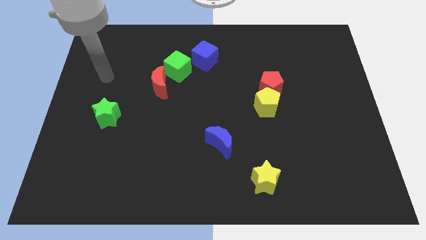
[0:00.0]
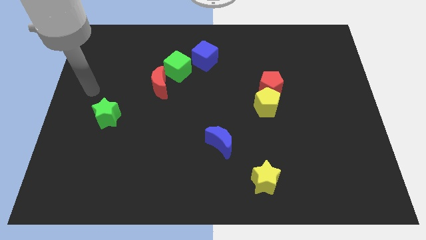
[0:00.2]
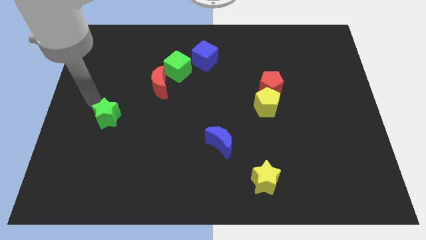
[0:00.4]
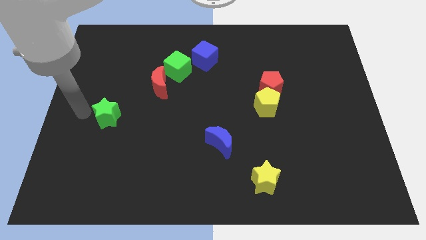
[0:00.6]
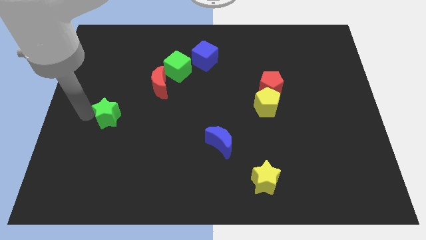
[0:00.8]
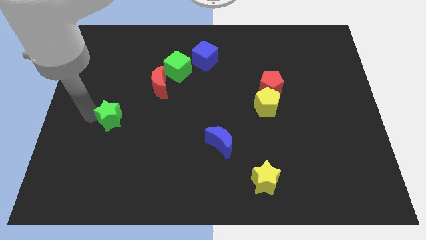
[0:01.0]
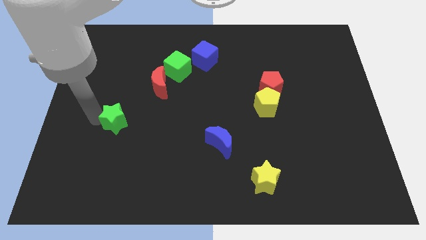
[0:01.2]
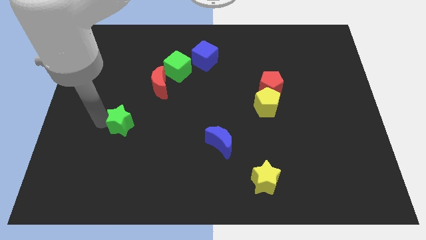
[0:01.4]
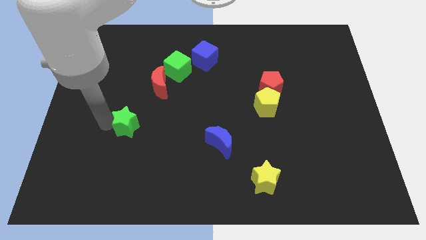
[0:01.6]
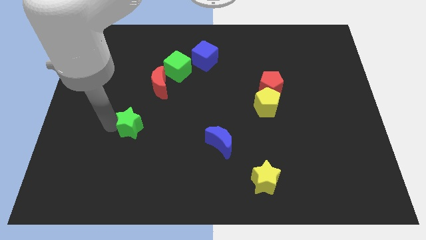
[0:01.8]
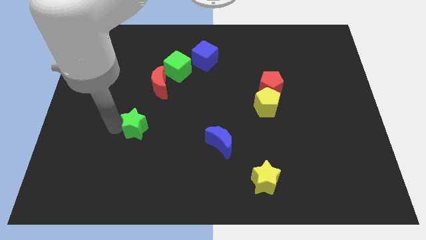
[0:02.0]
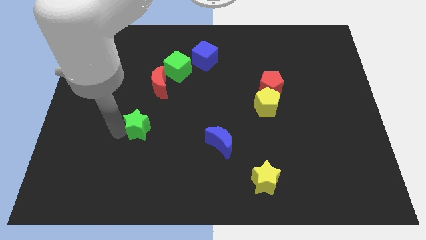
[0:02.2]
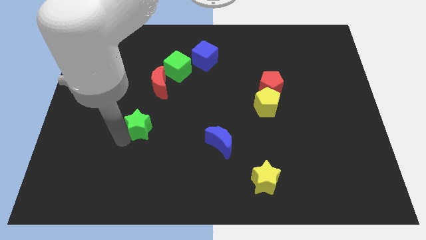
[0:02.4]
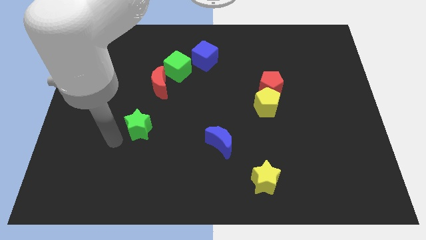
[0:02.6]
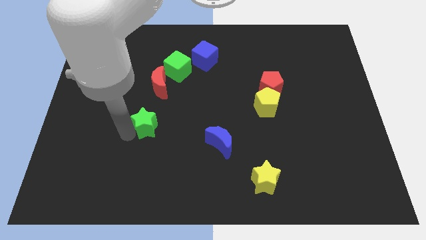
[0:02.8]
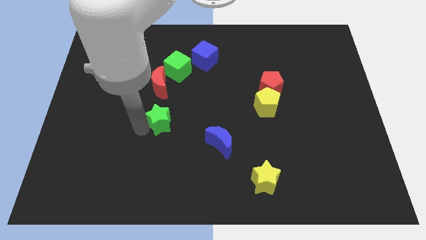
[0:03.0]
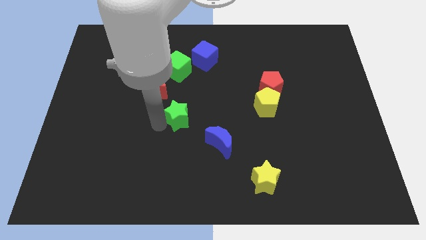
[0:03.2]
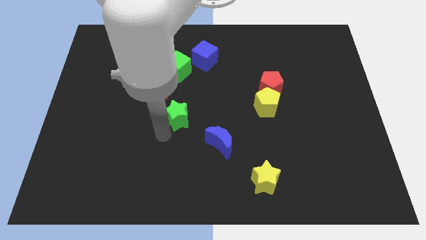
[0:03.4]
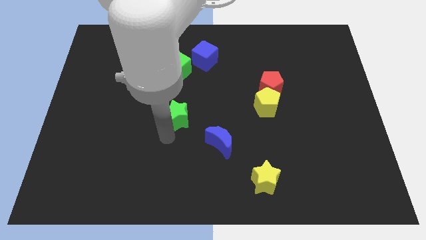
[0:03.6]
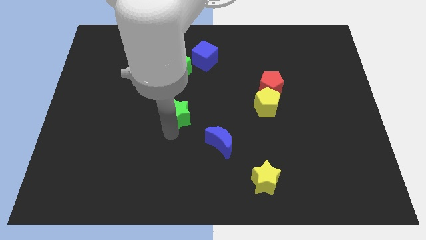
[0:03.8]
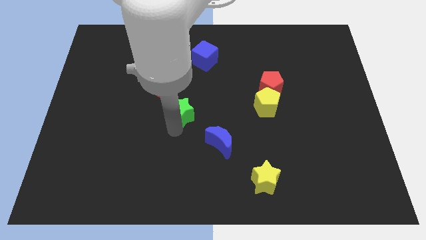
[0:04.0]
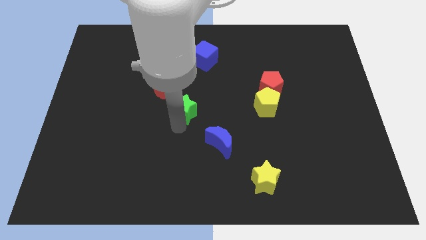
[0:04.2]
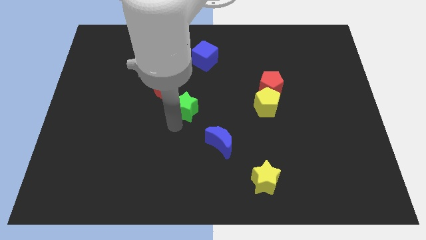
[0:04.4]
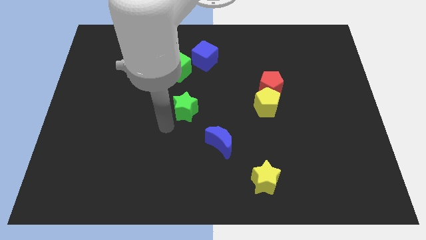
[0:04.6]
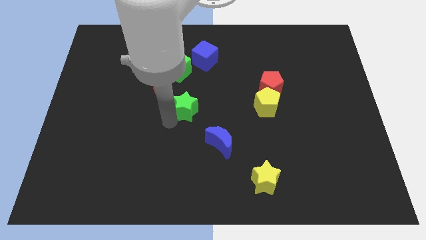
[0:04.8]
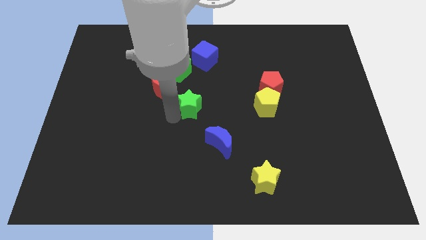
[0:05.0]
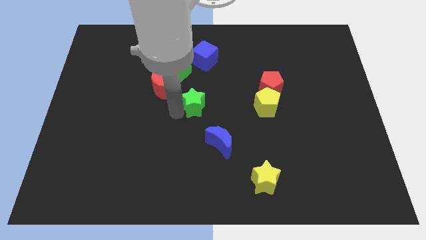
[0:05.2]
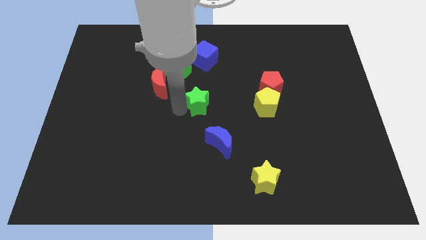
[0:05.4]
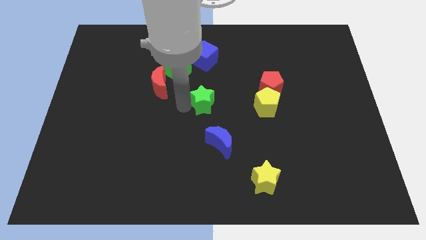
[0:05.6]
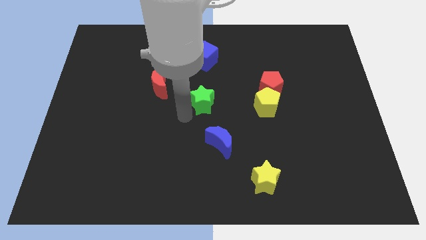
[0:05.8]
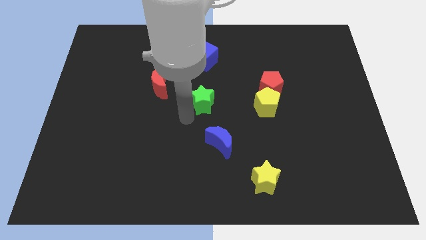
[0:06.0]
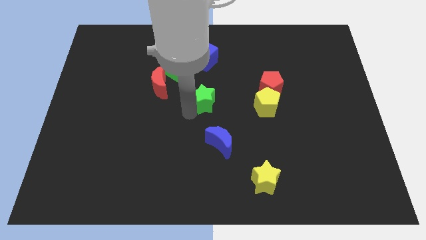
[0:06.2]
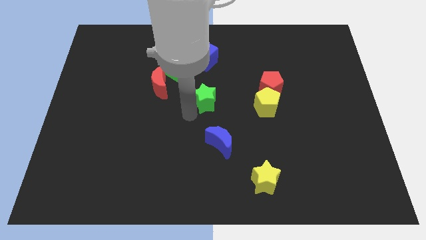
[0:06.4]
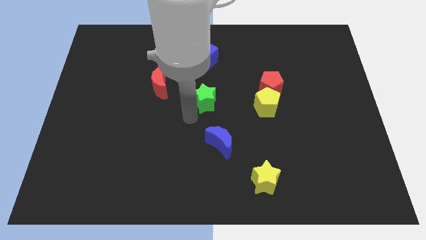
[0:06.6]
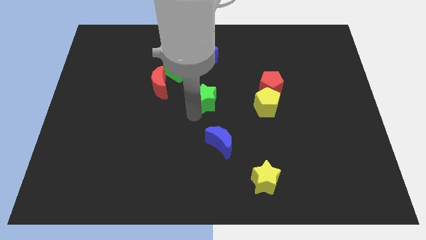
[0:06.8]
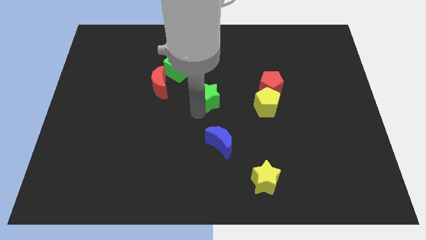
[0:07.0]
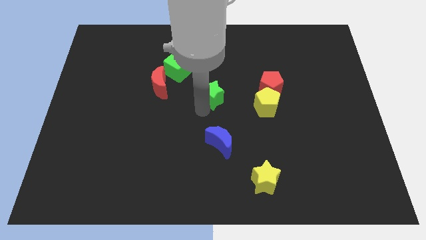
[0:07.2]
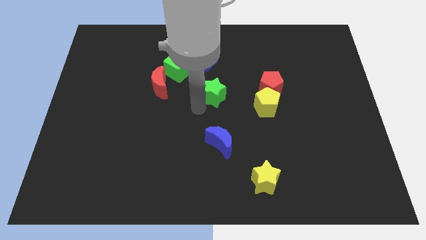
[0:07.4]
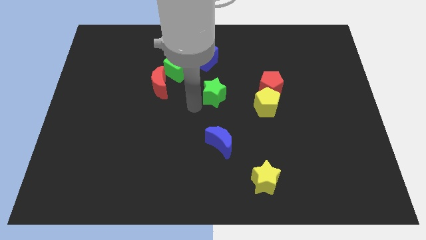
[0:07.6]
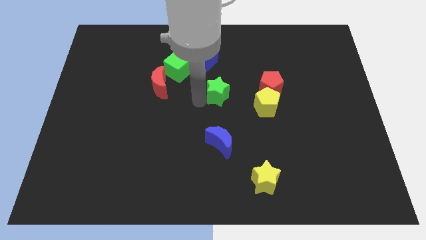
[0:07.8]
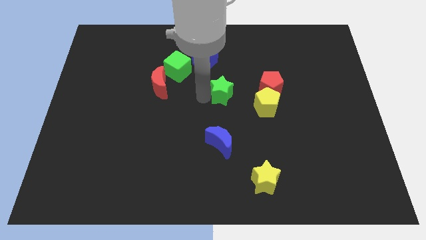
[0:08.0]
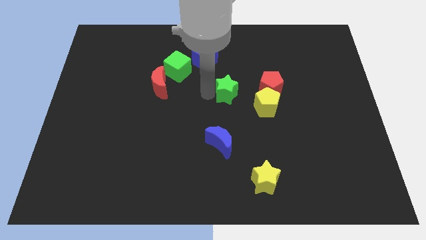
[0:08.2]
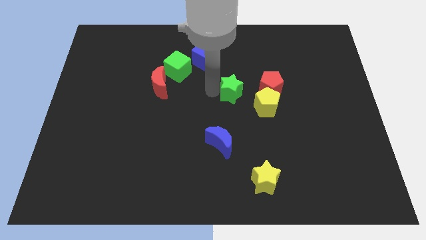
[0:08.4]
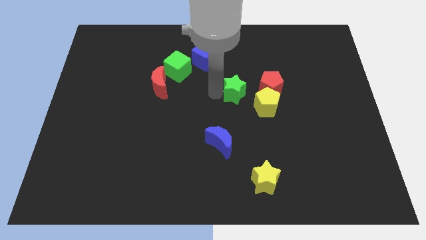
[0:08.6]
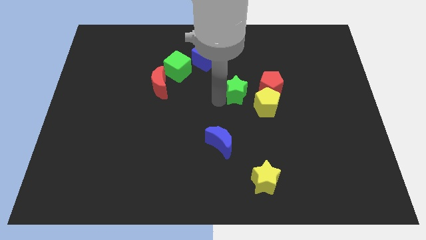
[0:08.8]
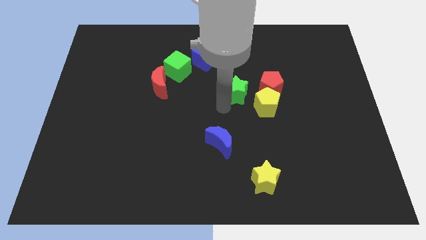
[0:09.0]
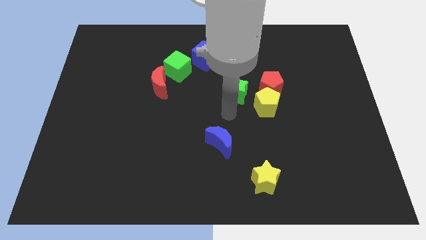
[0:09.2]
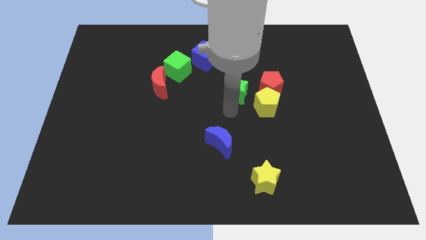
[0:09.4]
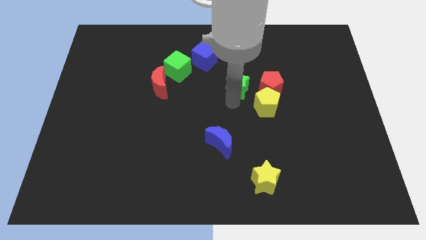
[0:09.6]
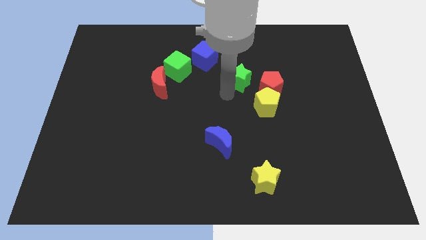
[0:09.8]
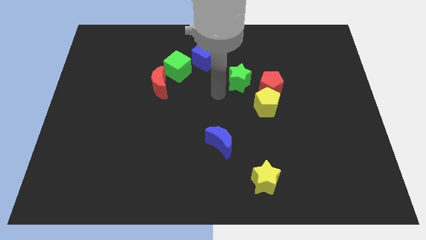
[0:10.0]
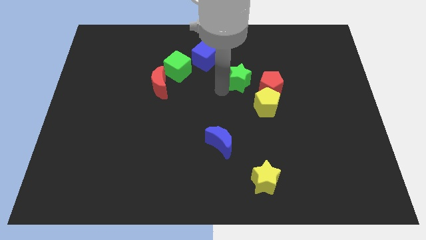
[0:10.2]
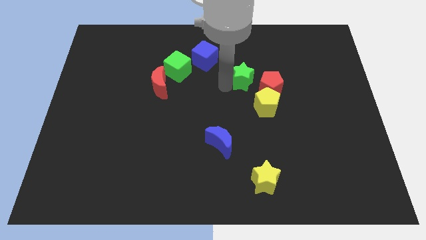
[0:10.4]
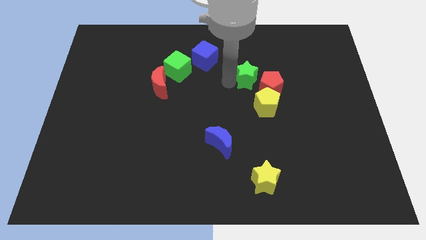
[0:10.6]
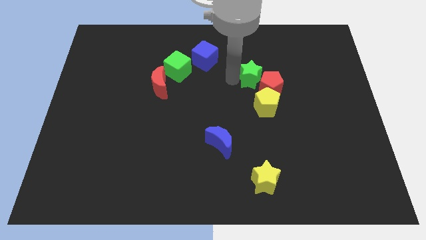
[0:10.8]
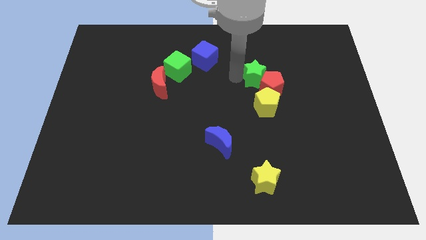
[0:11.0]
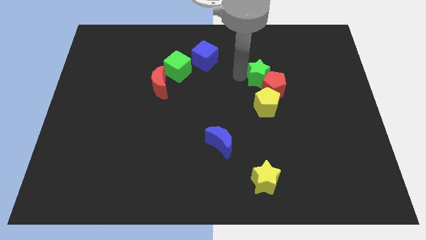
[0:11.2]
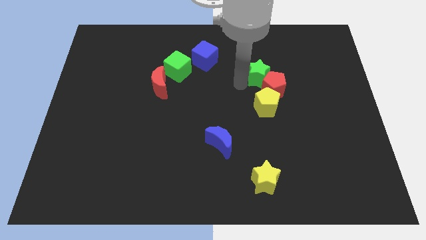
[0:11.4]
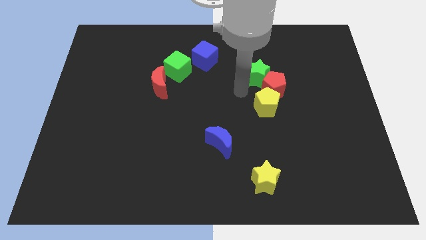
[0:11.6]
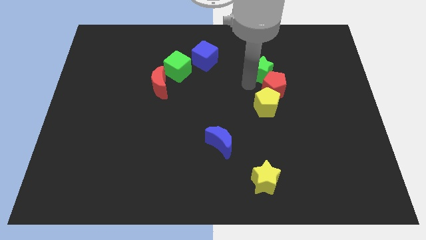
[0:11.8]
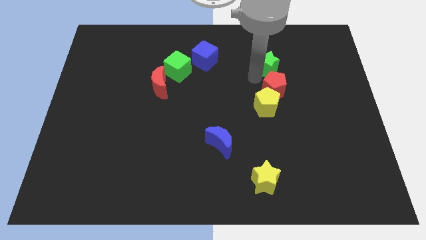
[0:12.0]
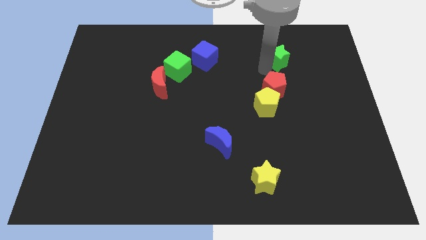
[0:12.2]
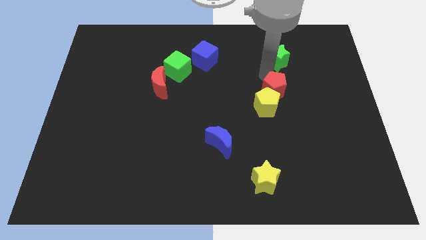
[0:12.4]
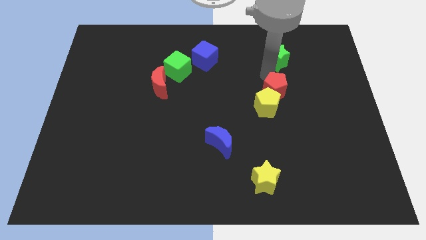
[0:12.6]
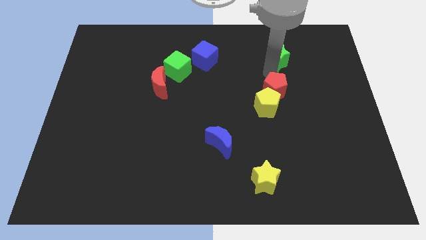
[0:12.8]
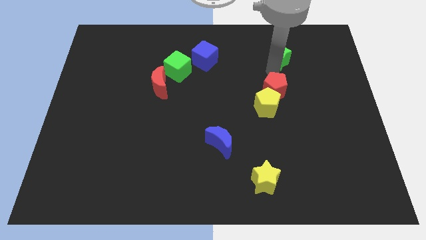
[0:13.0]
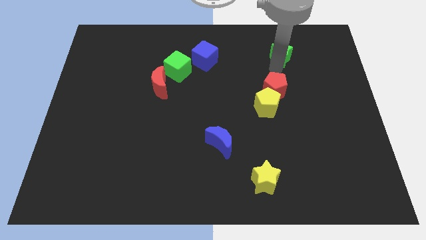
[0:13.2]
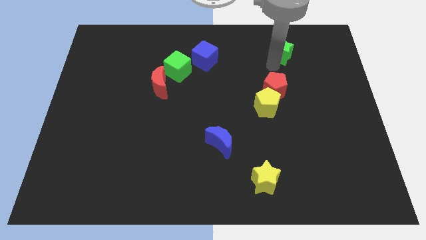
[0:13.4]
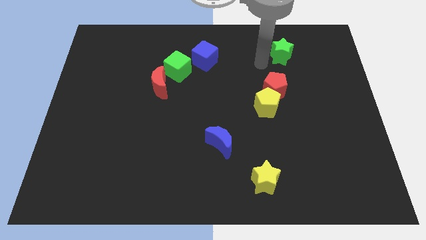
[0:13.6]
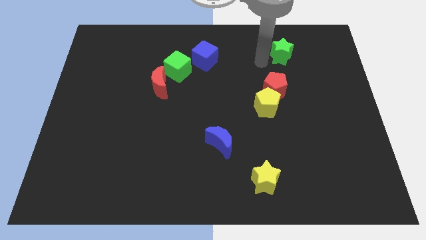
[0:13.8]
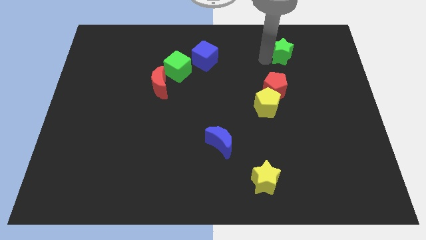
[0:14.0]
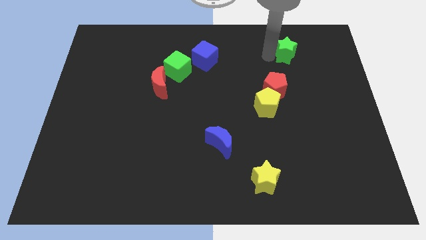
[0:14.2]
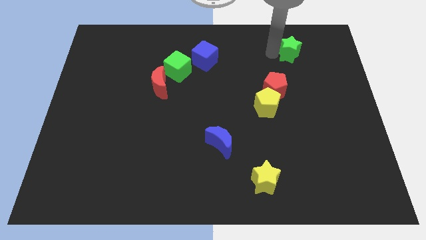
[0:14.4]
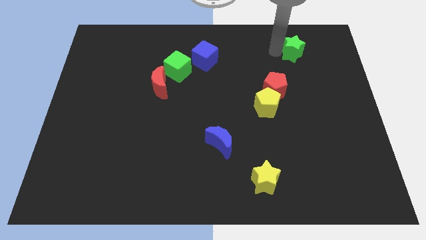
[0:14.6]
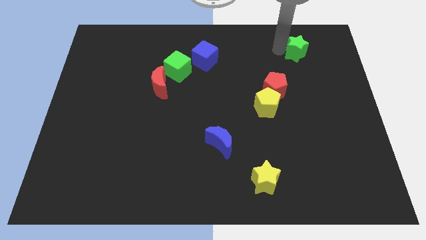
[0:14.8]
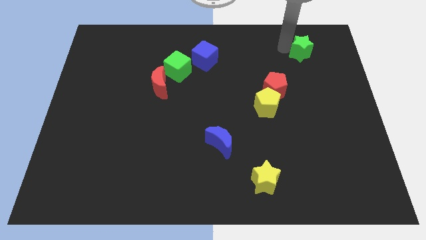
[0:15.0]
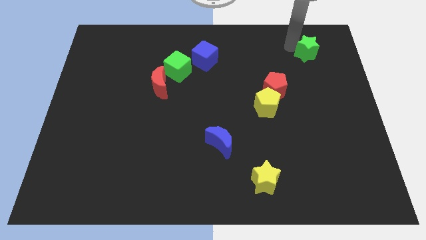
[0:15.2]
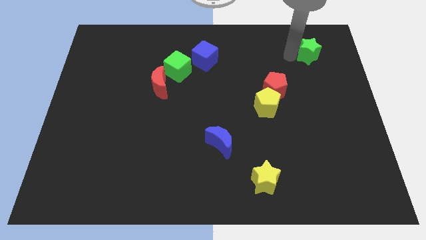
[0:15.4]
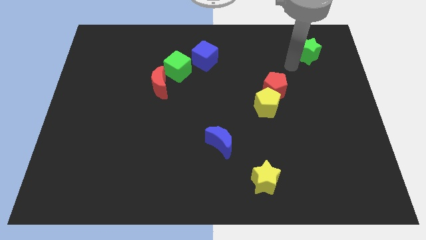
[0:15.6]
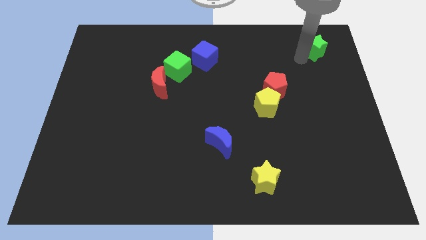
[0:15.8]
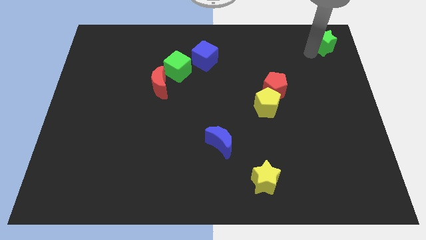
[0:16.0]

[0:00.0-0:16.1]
slide the green star to the upper right corner
